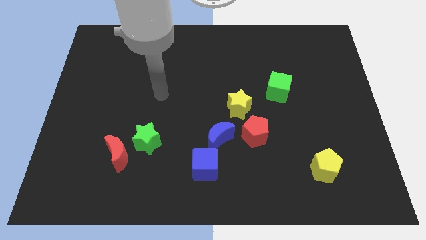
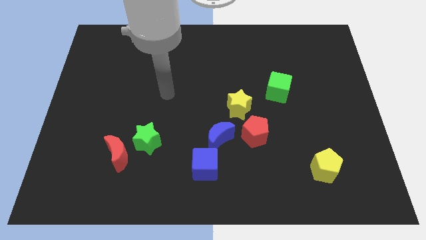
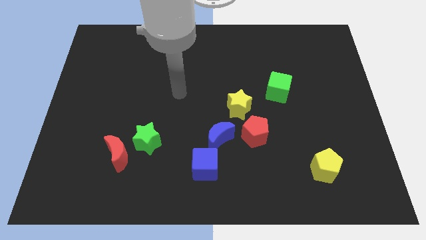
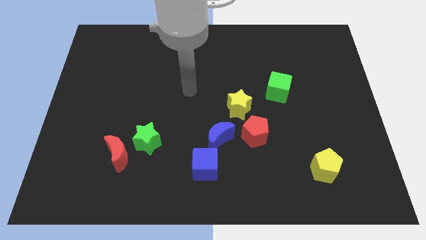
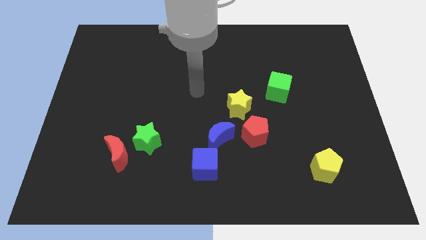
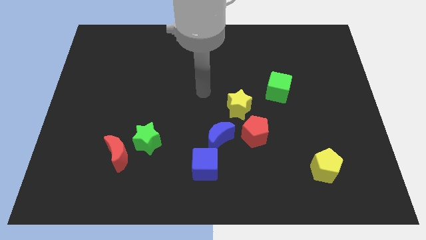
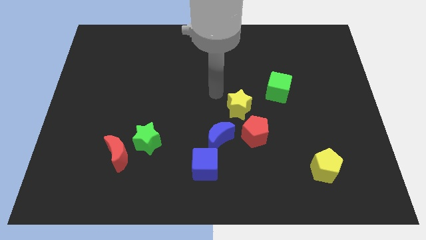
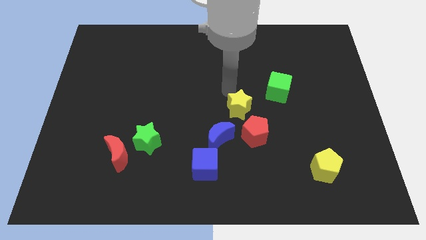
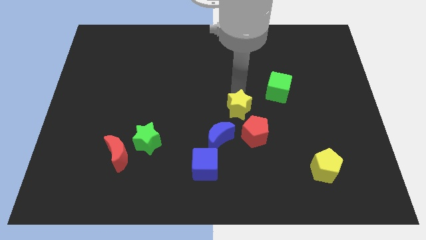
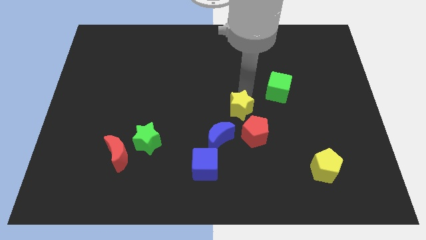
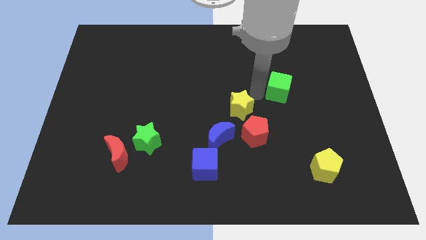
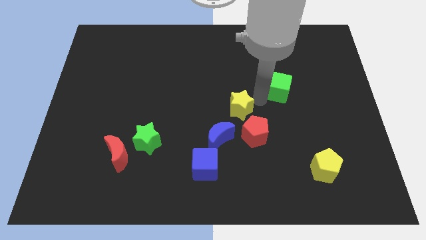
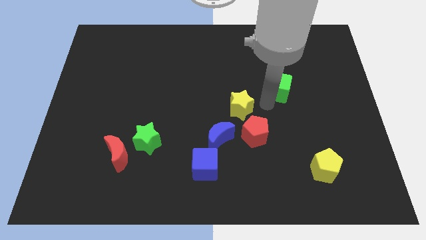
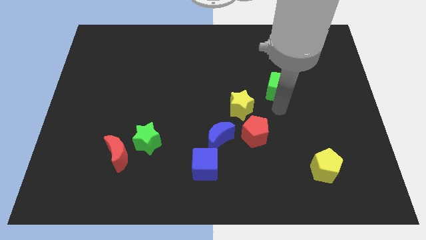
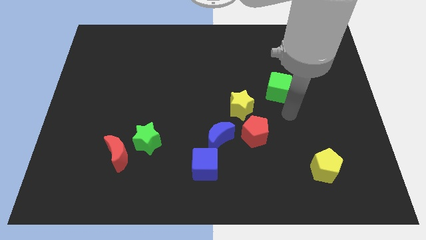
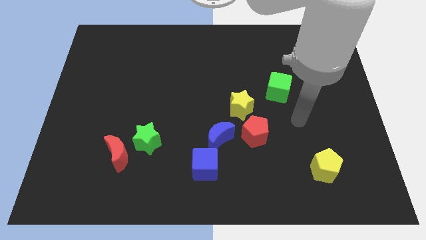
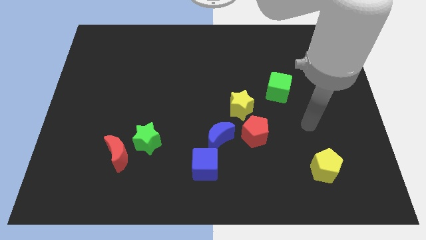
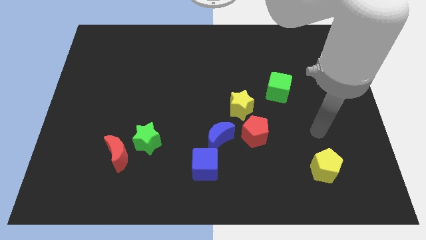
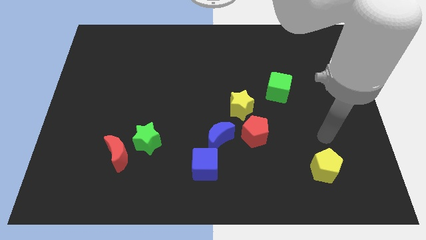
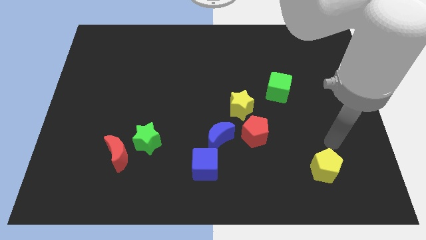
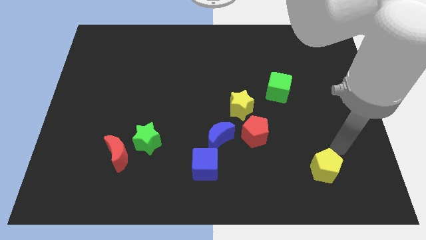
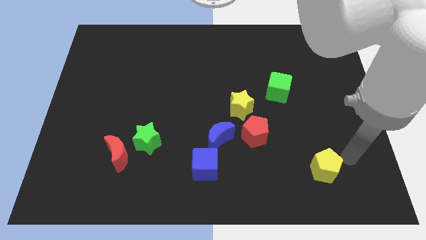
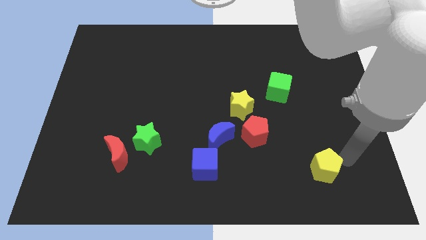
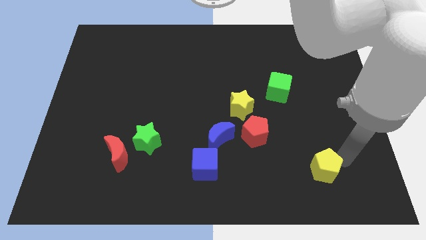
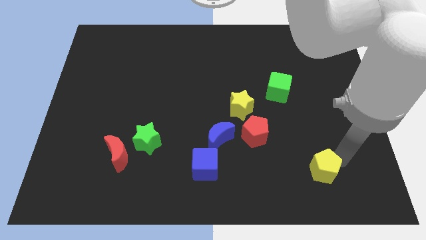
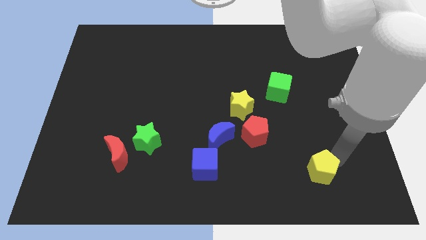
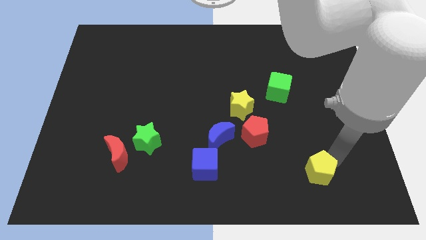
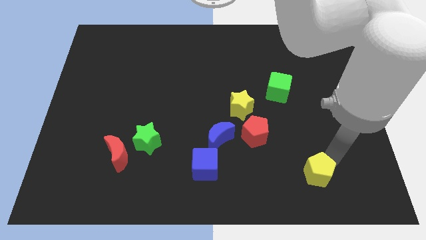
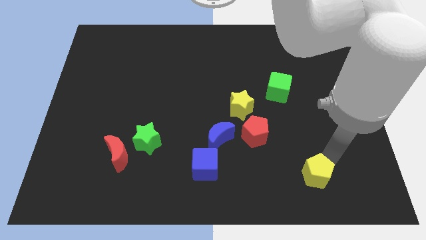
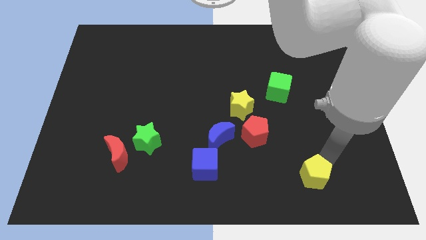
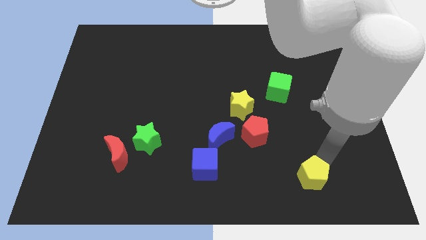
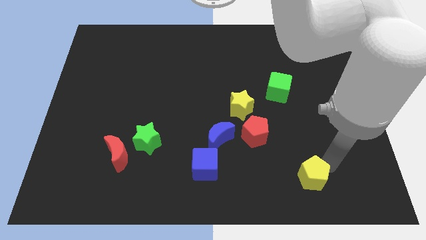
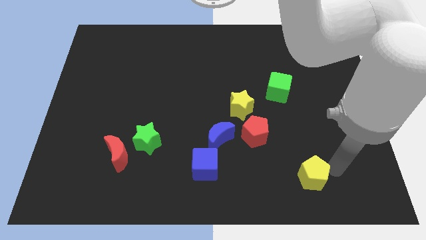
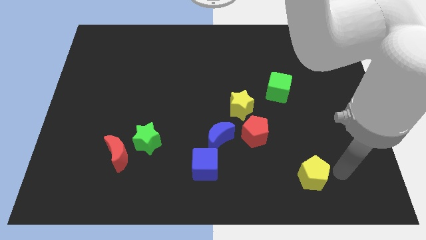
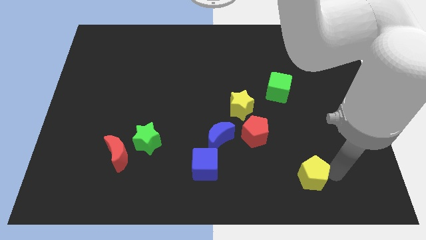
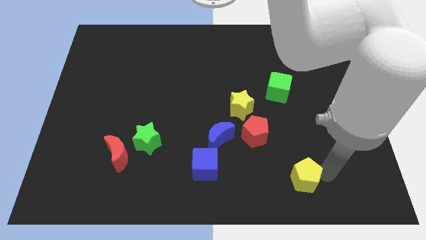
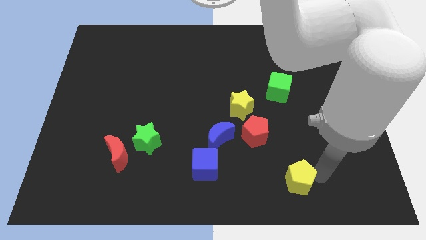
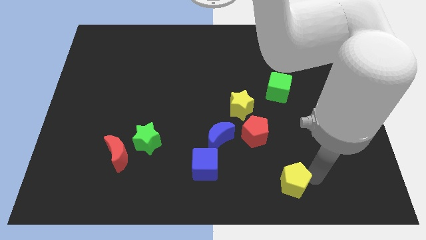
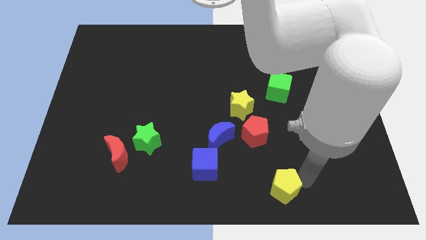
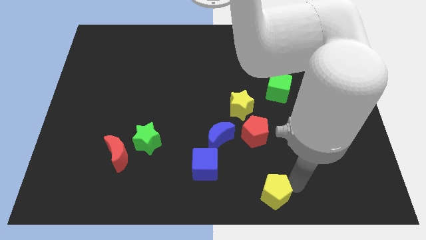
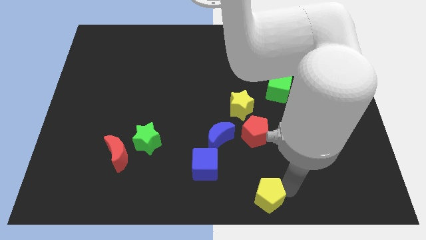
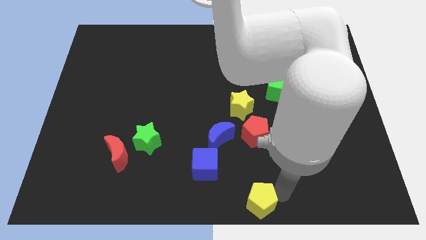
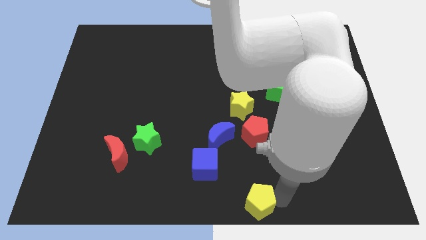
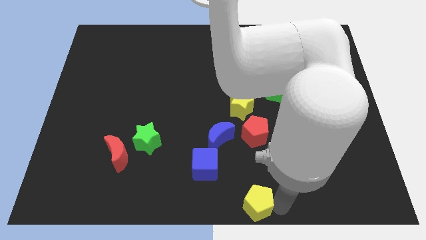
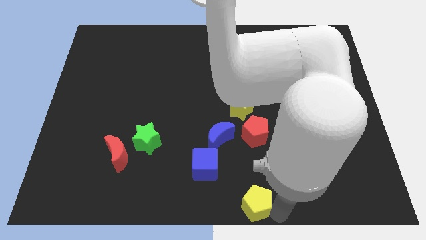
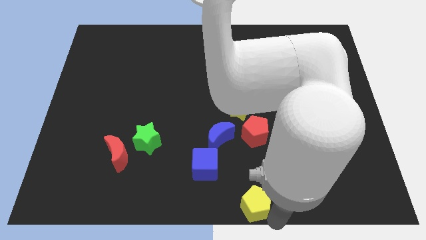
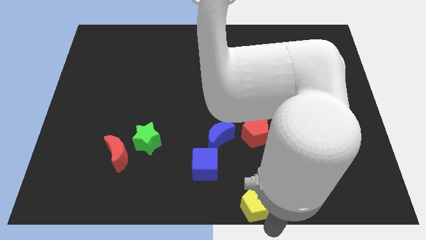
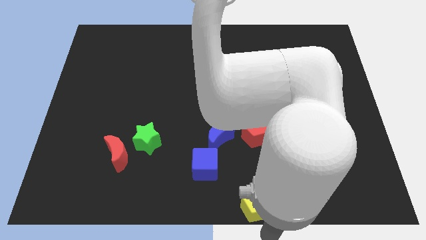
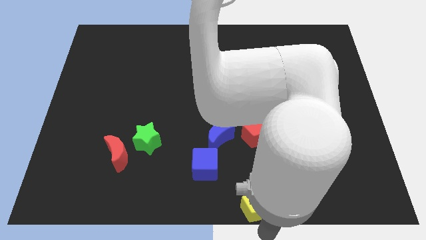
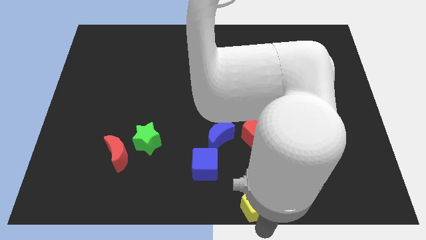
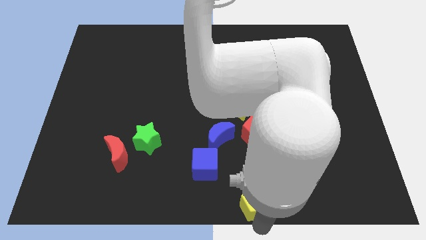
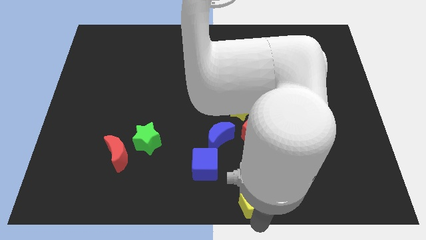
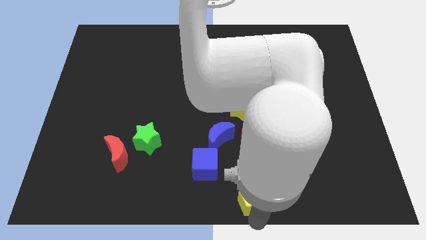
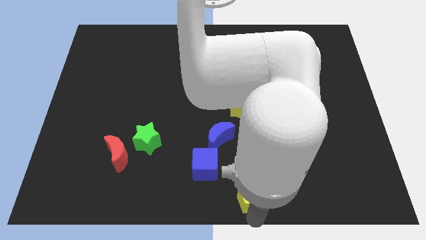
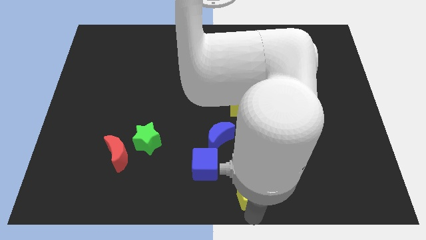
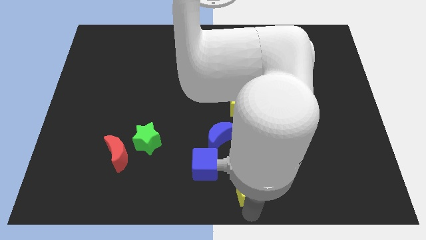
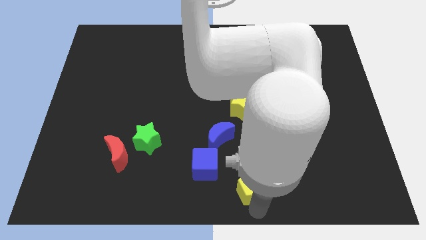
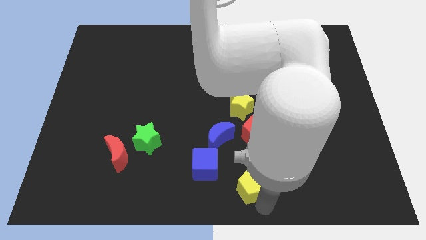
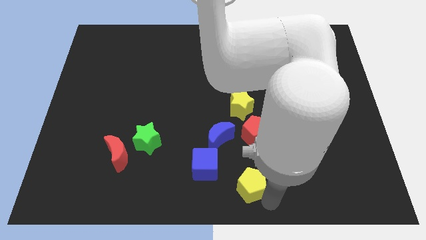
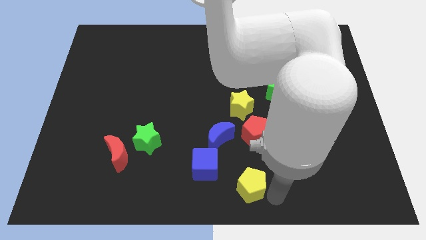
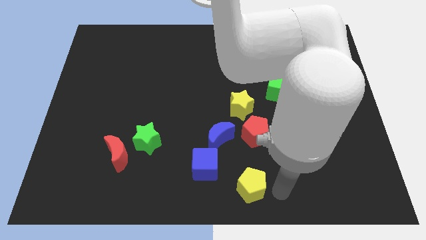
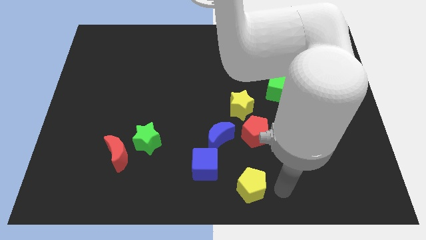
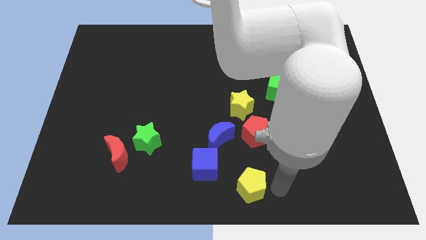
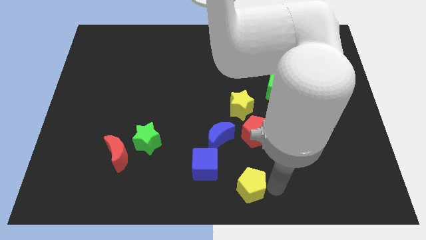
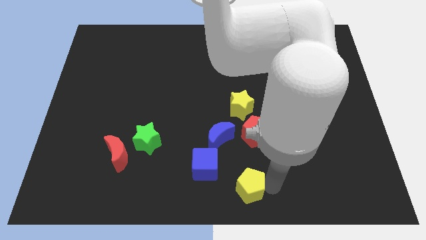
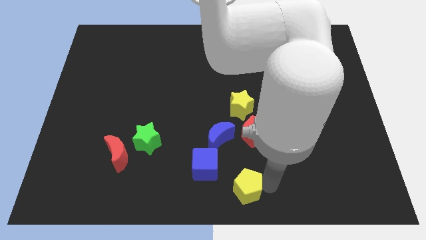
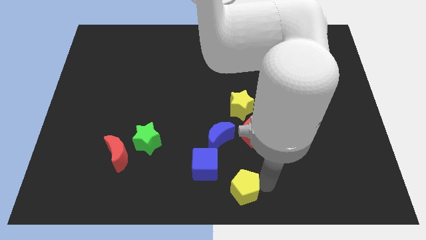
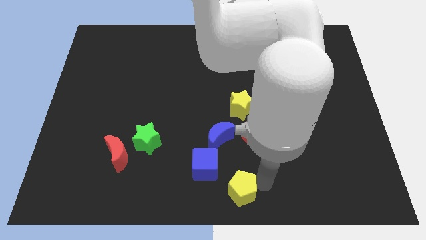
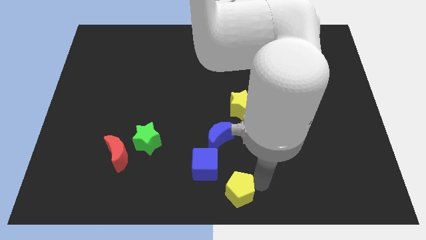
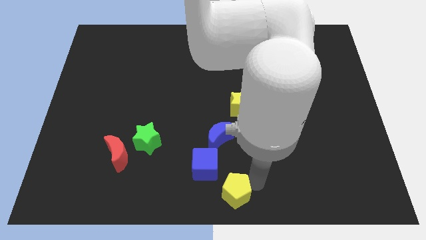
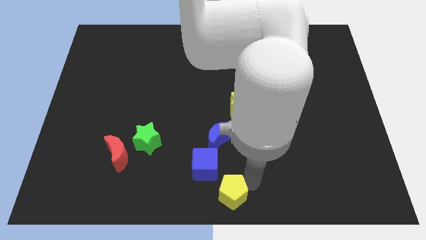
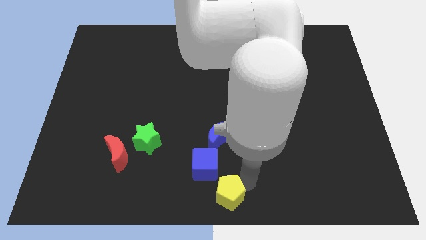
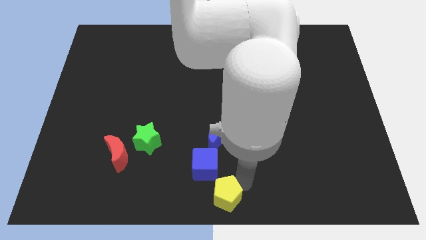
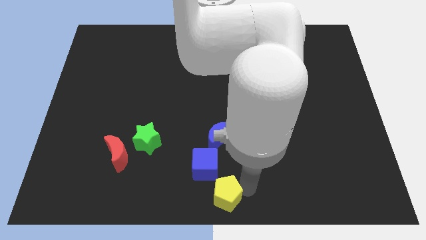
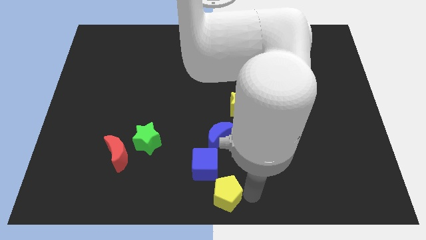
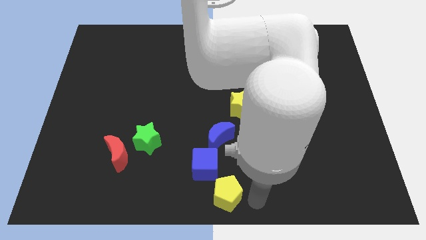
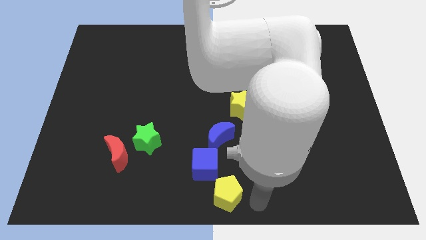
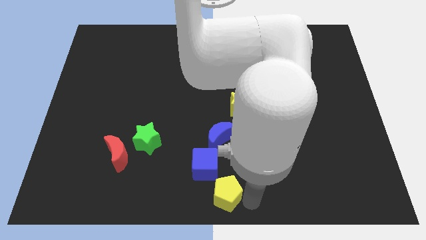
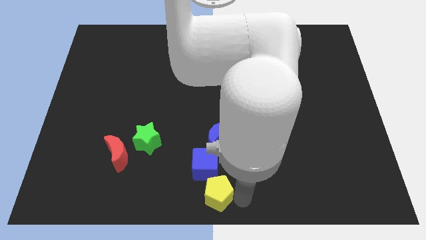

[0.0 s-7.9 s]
push the yellow pentagon left
